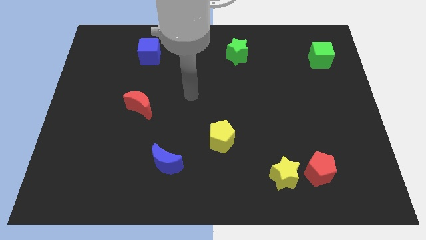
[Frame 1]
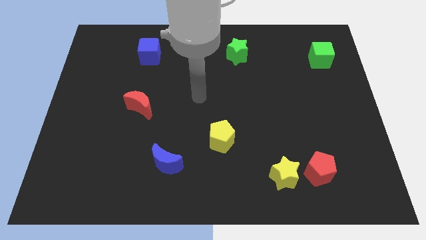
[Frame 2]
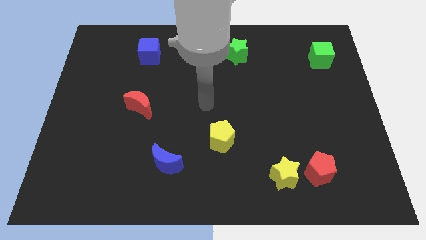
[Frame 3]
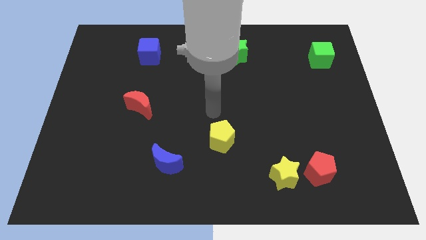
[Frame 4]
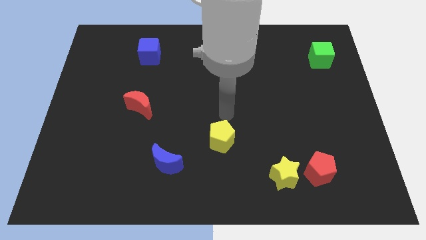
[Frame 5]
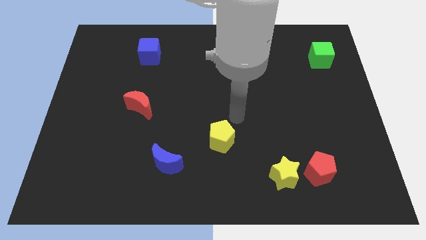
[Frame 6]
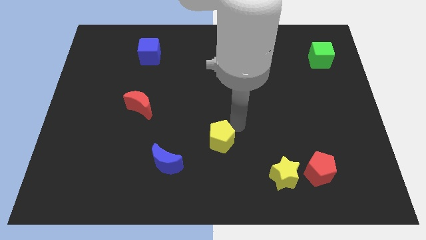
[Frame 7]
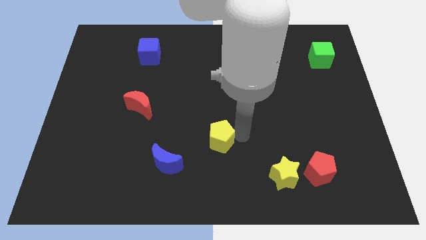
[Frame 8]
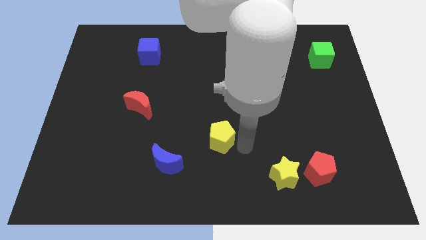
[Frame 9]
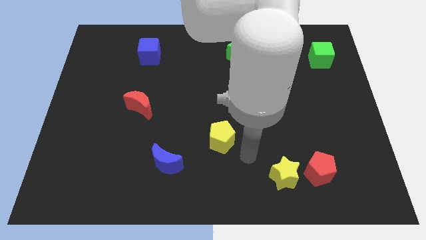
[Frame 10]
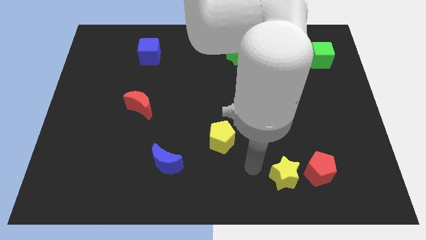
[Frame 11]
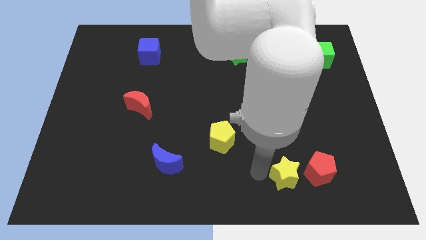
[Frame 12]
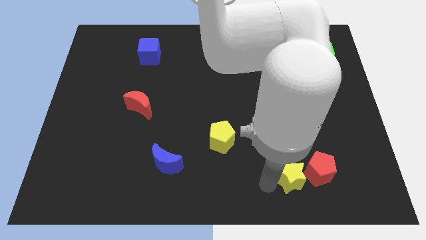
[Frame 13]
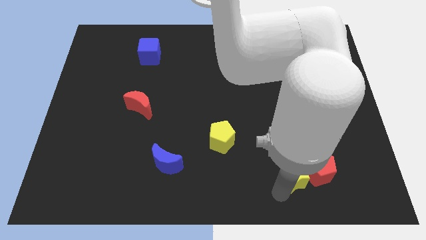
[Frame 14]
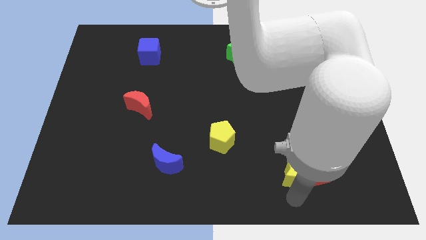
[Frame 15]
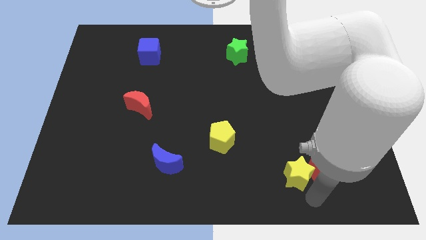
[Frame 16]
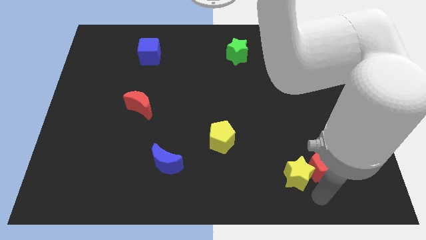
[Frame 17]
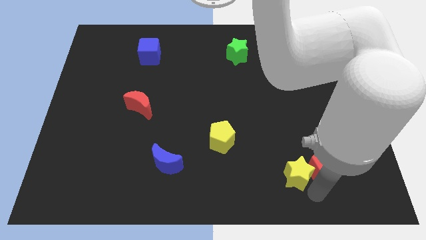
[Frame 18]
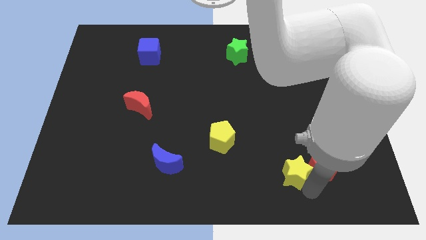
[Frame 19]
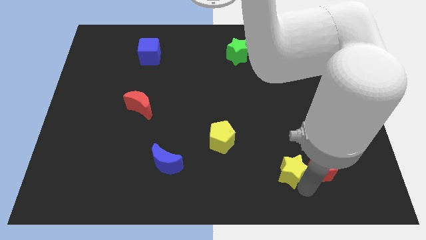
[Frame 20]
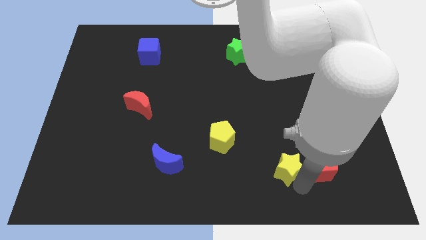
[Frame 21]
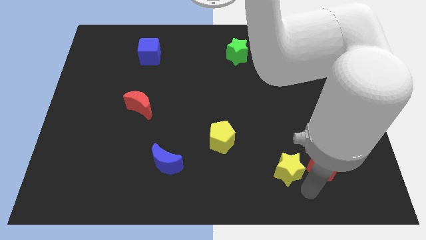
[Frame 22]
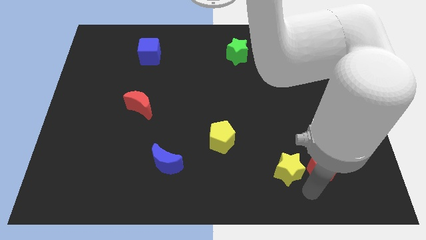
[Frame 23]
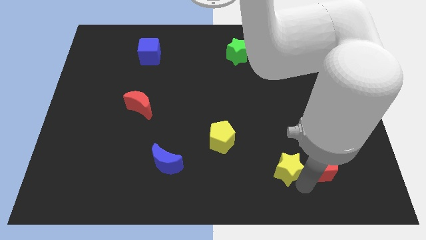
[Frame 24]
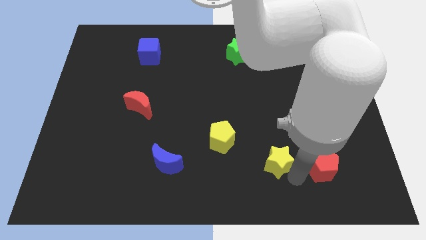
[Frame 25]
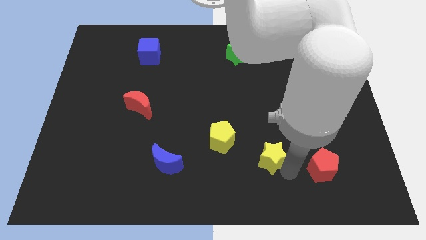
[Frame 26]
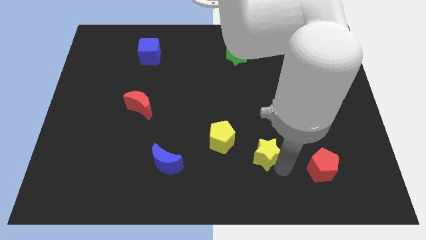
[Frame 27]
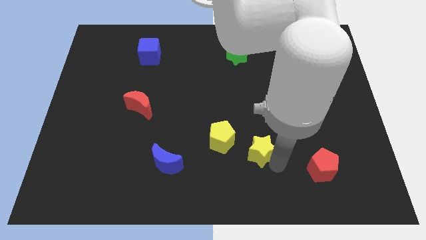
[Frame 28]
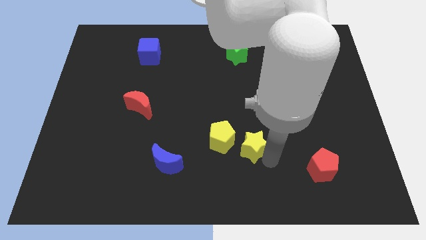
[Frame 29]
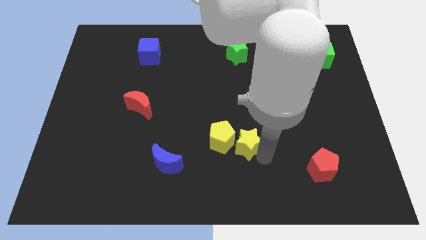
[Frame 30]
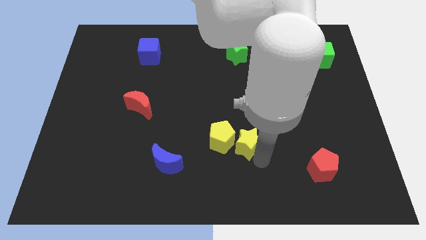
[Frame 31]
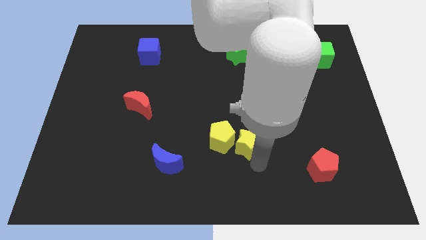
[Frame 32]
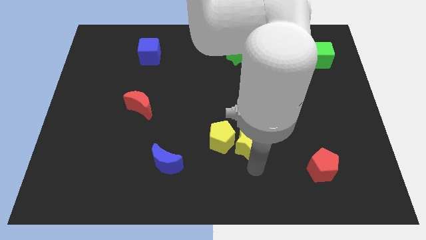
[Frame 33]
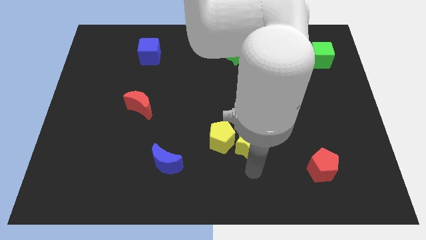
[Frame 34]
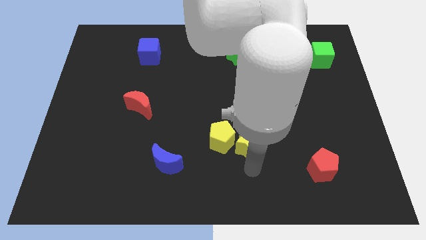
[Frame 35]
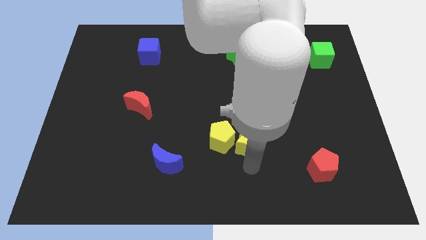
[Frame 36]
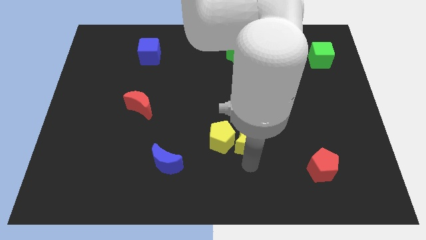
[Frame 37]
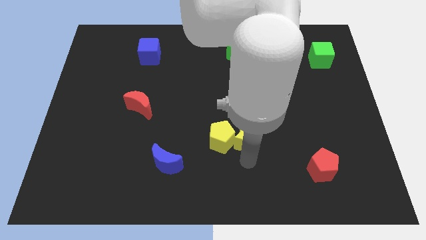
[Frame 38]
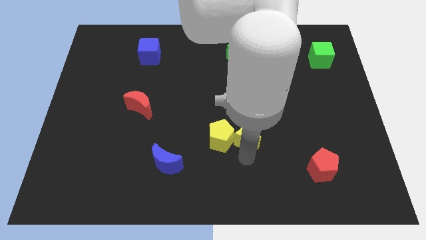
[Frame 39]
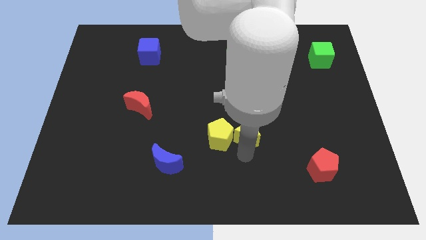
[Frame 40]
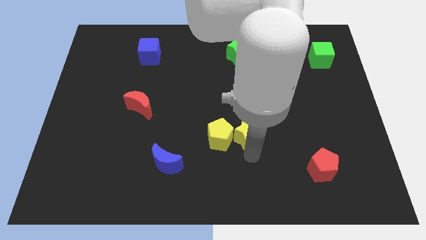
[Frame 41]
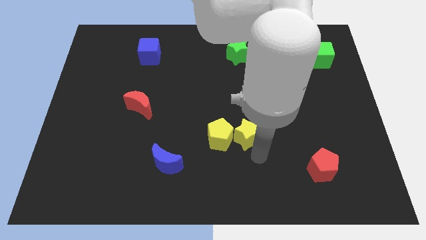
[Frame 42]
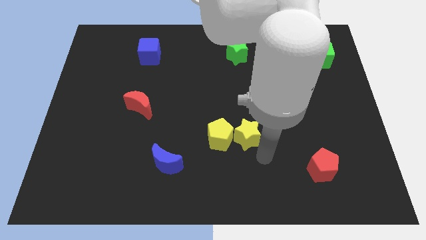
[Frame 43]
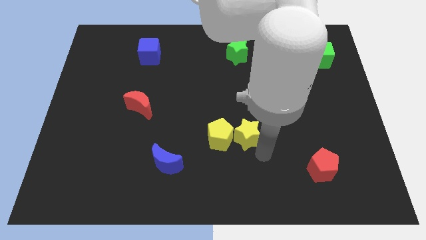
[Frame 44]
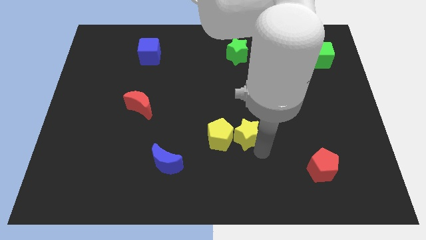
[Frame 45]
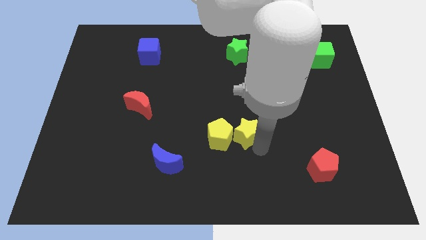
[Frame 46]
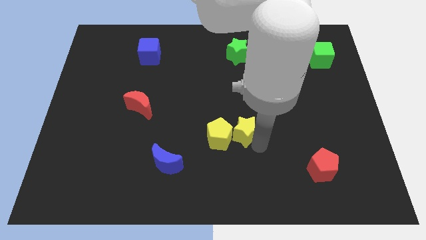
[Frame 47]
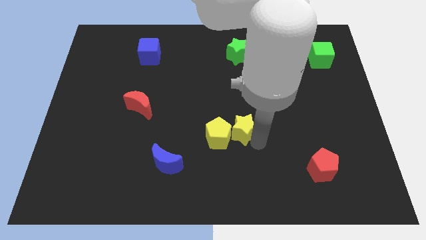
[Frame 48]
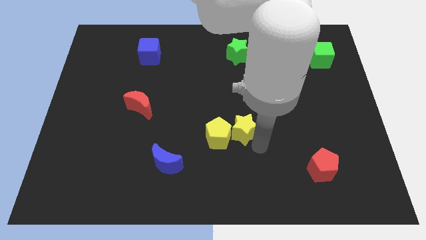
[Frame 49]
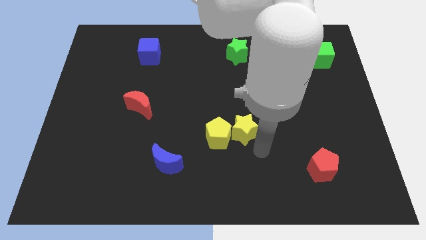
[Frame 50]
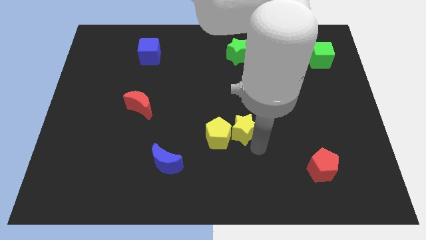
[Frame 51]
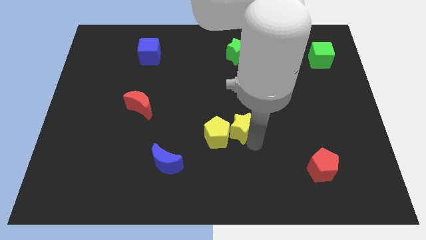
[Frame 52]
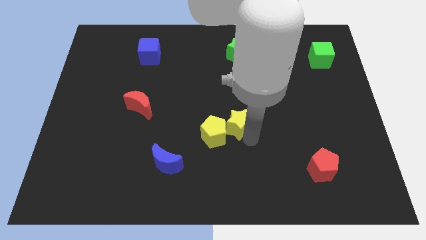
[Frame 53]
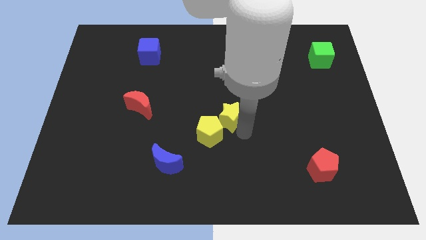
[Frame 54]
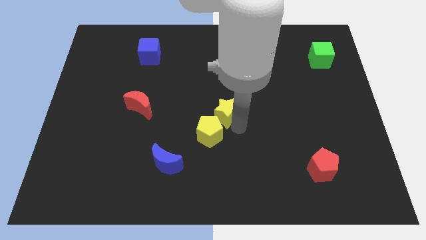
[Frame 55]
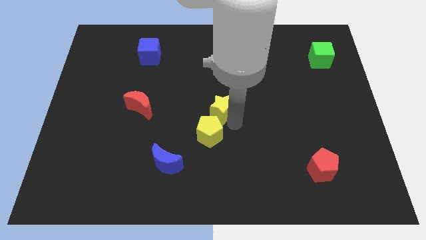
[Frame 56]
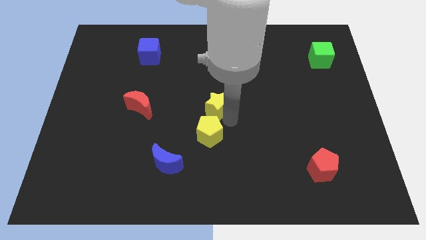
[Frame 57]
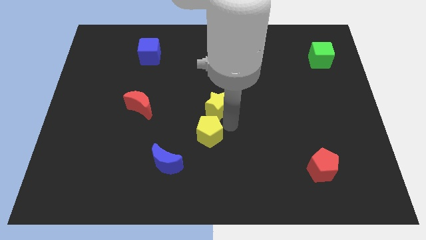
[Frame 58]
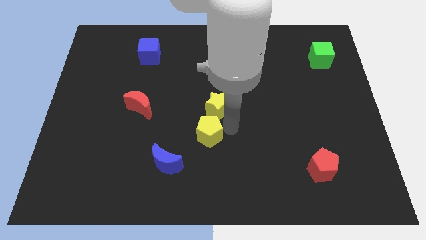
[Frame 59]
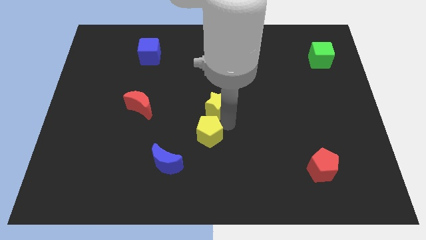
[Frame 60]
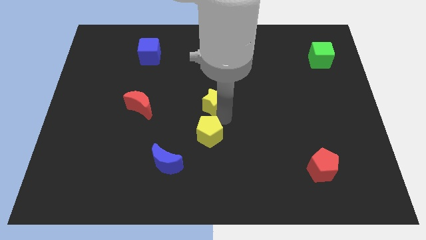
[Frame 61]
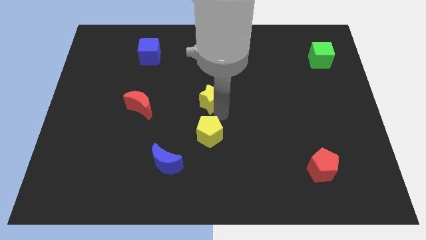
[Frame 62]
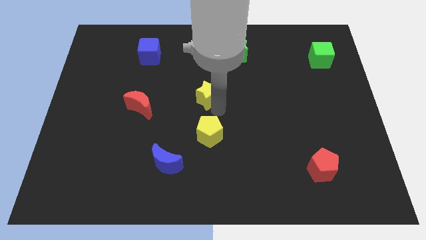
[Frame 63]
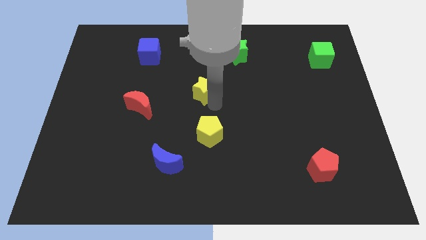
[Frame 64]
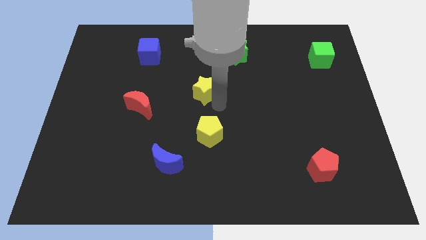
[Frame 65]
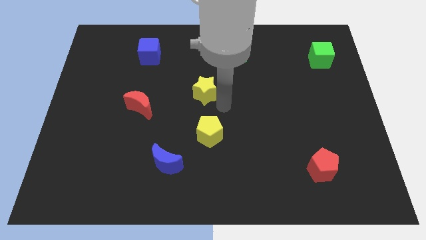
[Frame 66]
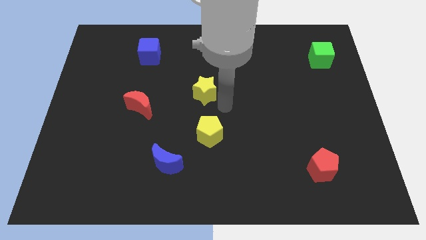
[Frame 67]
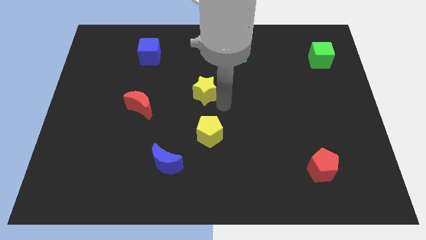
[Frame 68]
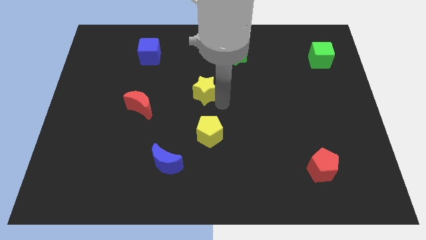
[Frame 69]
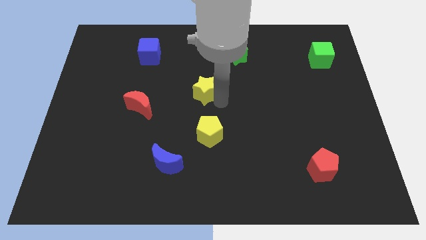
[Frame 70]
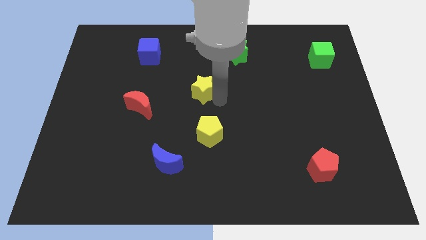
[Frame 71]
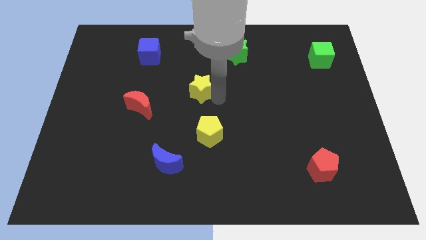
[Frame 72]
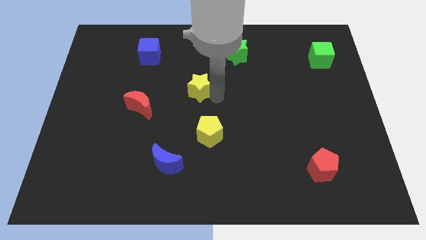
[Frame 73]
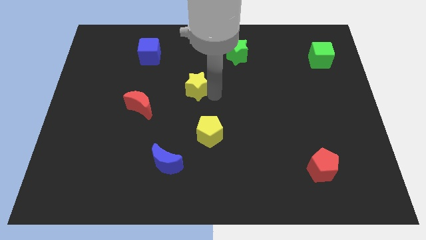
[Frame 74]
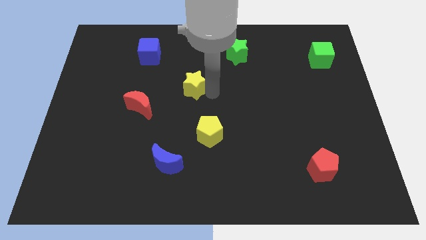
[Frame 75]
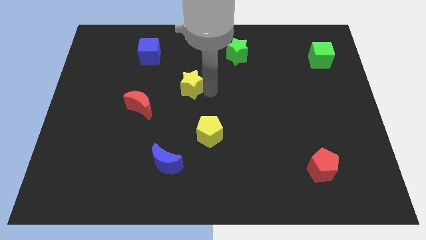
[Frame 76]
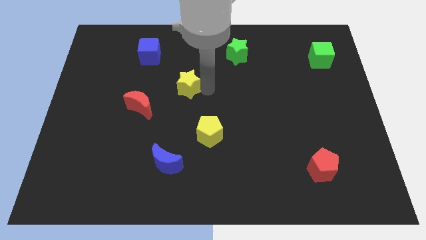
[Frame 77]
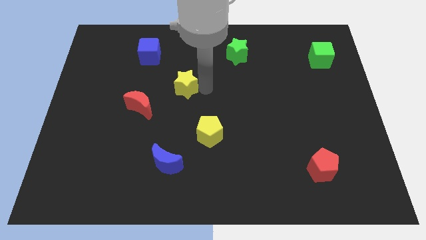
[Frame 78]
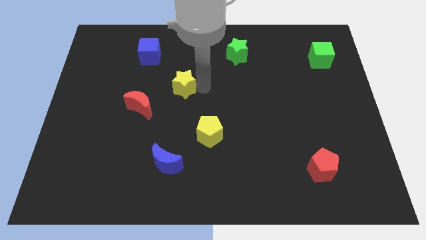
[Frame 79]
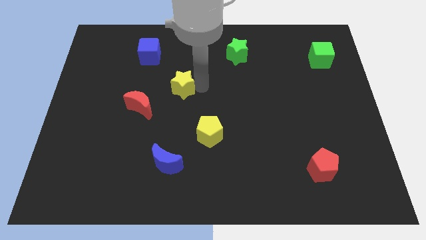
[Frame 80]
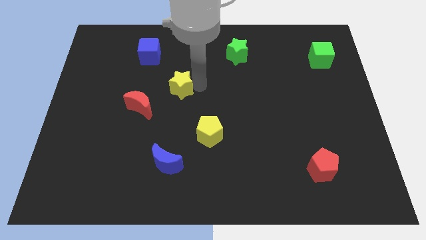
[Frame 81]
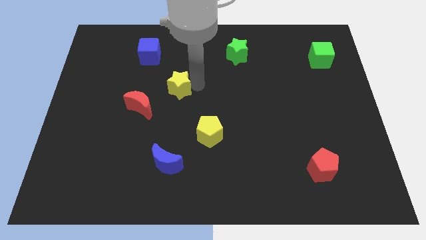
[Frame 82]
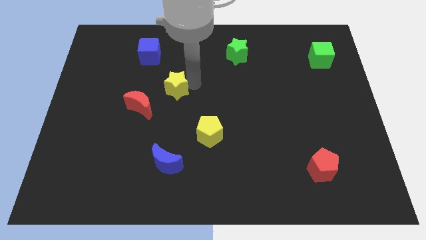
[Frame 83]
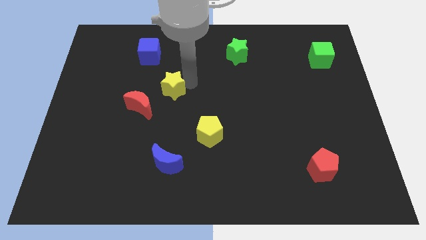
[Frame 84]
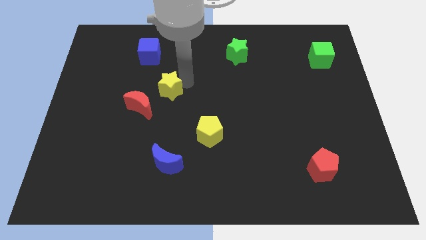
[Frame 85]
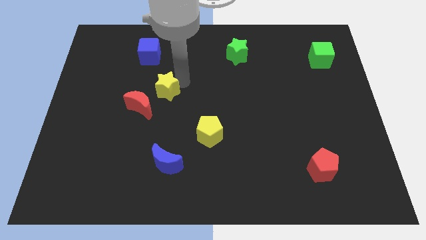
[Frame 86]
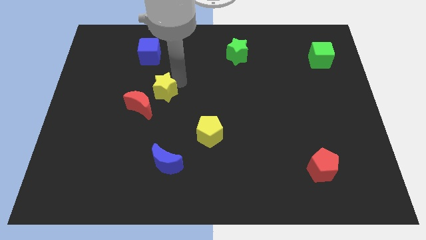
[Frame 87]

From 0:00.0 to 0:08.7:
put the yellow star to the top of the red moon
